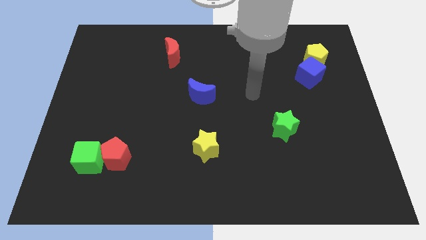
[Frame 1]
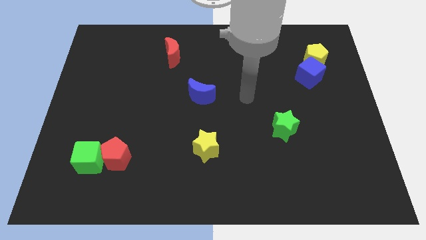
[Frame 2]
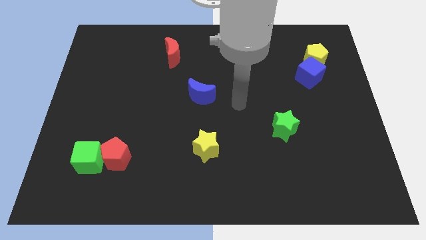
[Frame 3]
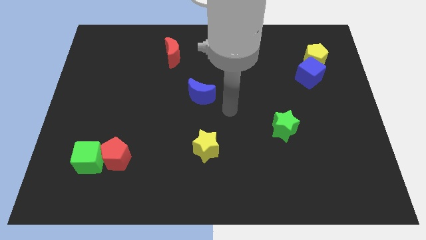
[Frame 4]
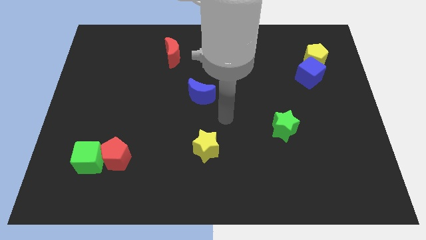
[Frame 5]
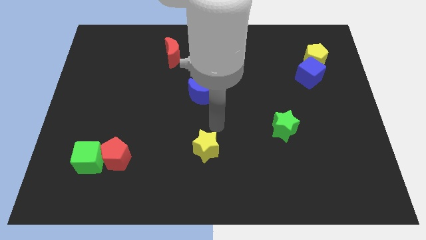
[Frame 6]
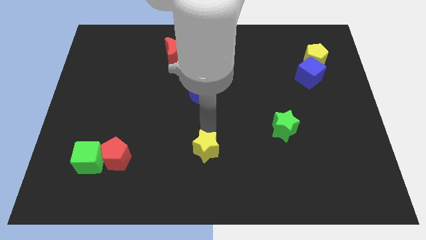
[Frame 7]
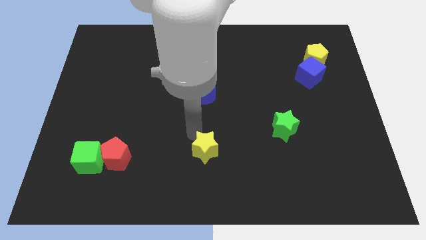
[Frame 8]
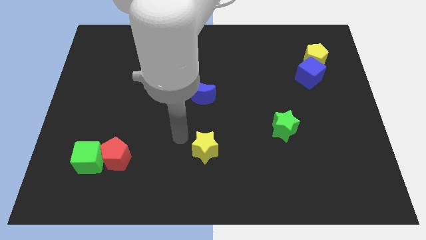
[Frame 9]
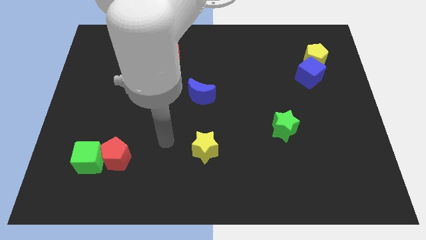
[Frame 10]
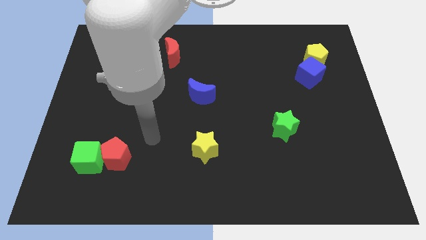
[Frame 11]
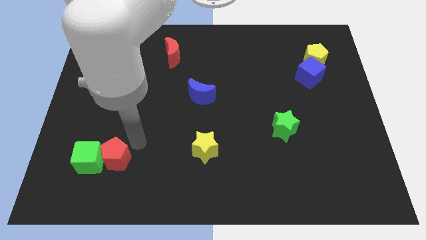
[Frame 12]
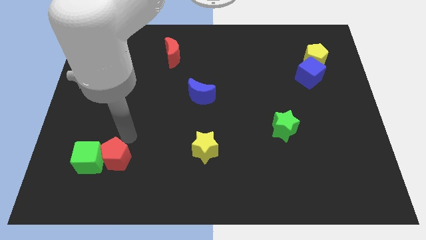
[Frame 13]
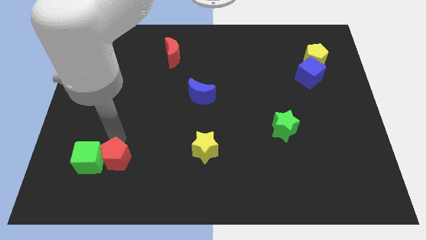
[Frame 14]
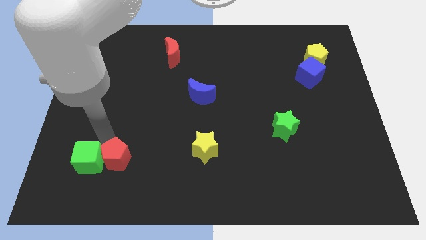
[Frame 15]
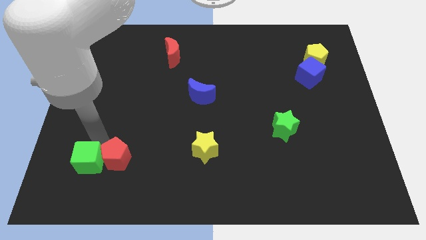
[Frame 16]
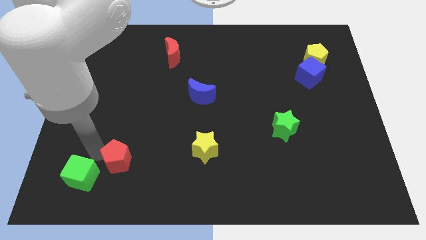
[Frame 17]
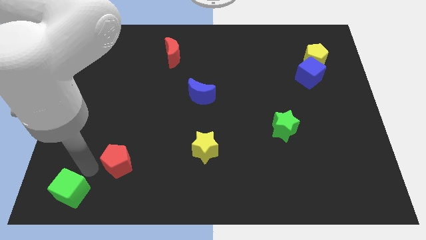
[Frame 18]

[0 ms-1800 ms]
pull the red pentagon apart from the green cube

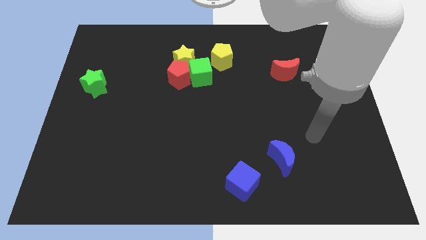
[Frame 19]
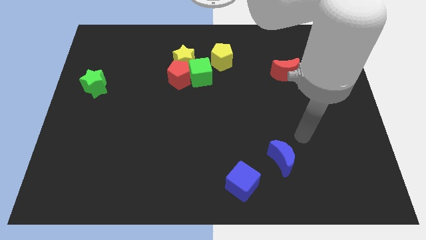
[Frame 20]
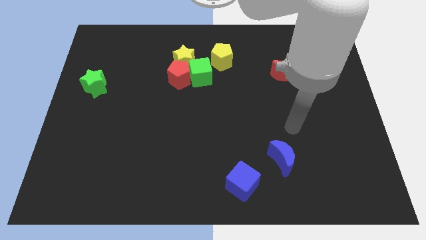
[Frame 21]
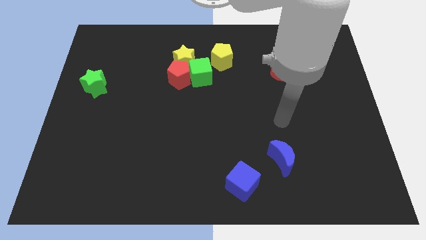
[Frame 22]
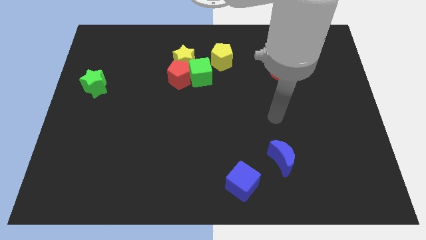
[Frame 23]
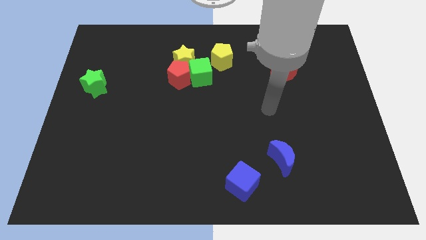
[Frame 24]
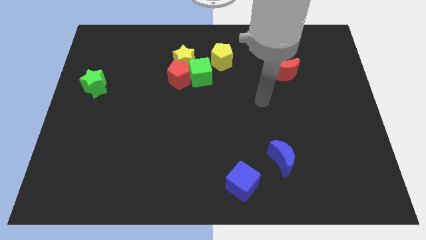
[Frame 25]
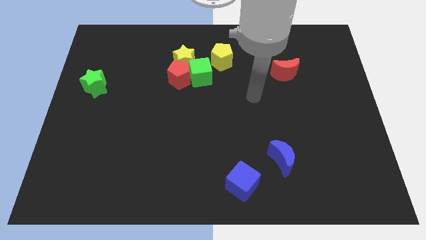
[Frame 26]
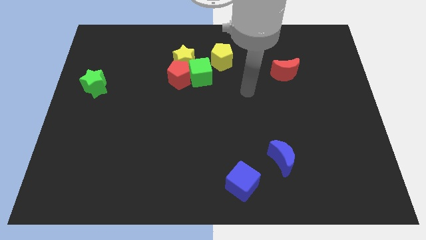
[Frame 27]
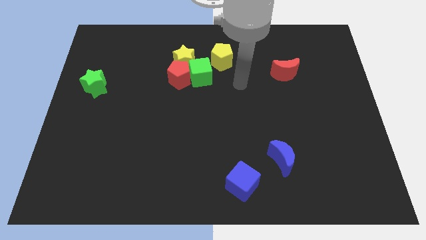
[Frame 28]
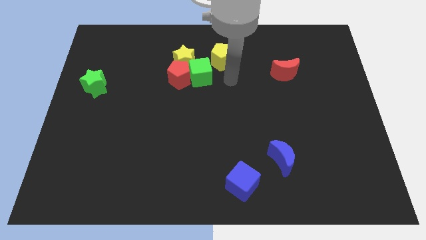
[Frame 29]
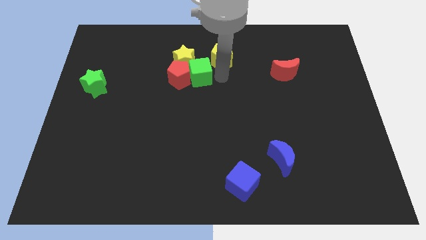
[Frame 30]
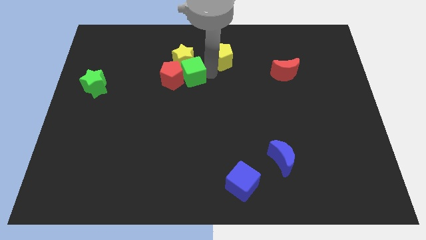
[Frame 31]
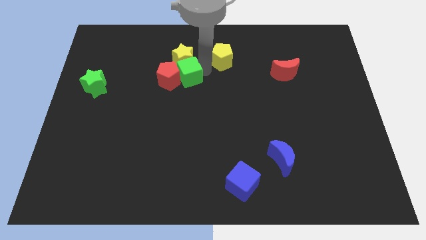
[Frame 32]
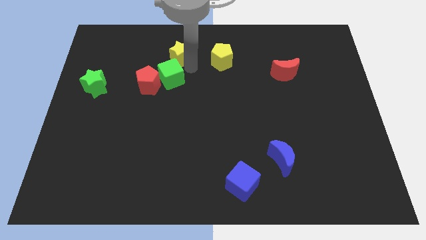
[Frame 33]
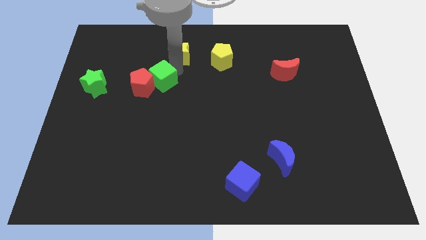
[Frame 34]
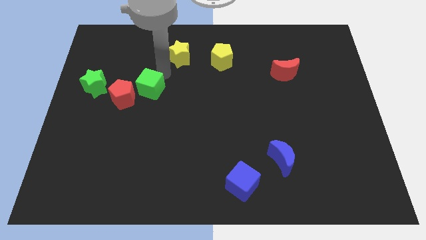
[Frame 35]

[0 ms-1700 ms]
move the red pentagon away from the green cube and yellow star

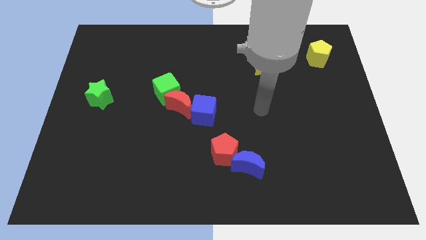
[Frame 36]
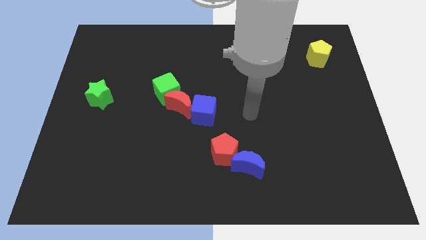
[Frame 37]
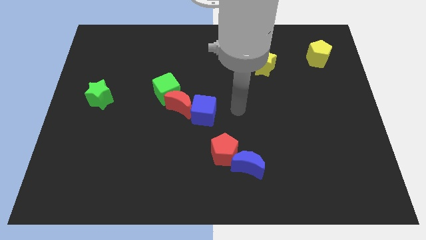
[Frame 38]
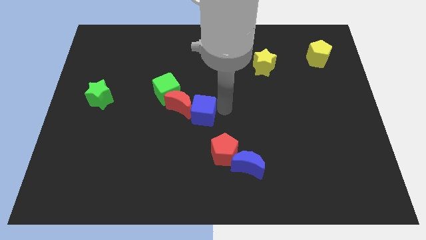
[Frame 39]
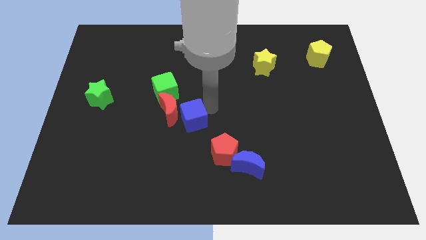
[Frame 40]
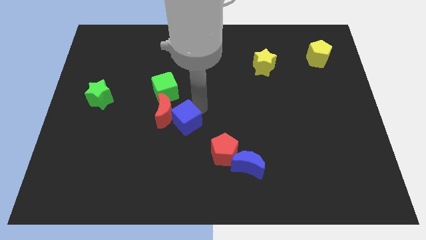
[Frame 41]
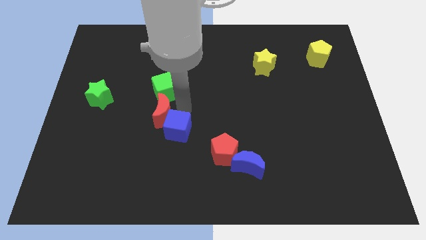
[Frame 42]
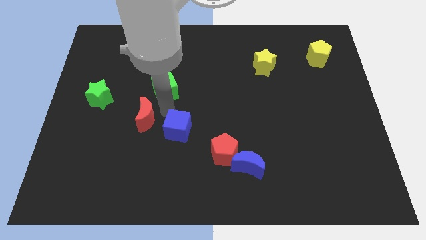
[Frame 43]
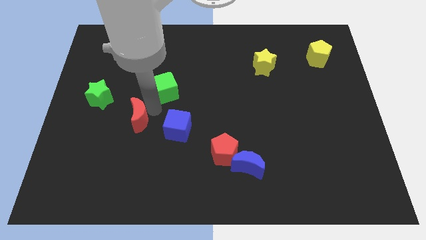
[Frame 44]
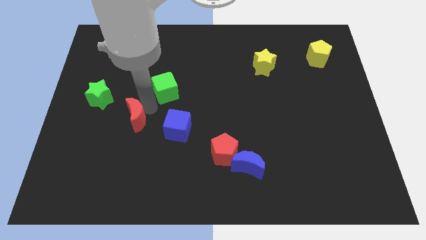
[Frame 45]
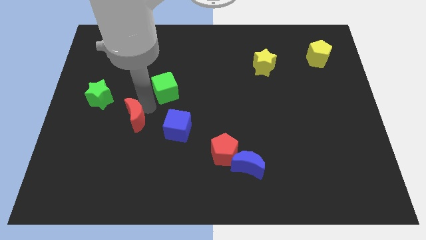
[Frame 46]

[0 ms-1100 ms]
pull the green cube apart from the red moon

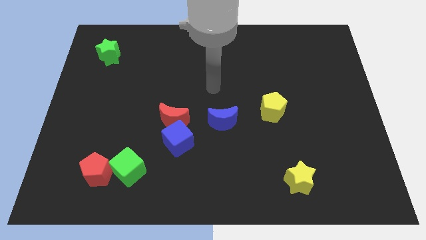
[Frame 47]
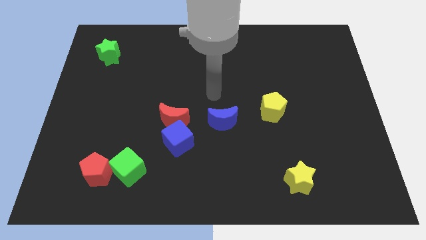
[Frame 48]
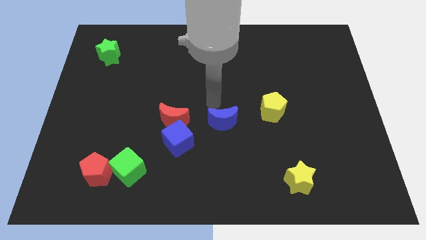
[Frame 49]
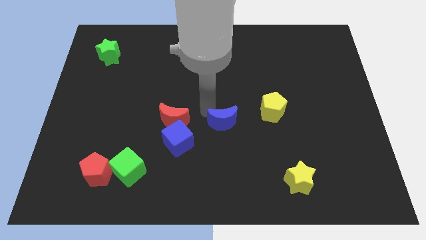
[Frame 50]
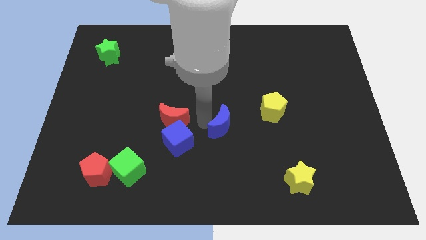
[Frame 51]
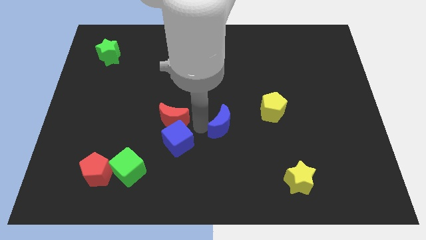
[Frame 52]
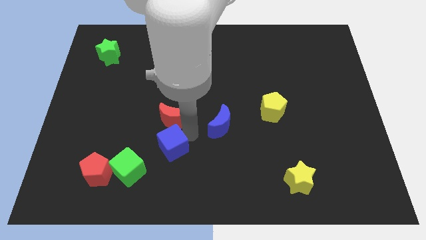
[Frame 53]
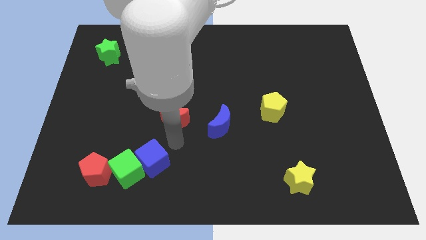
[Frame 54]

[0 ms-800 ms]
separate the red moon from the blue cube

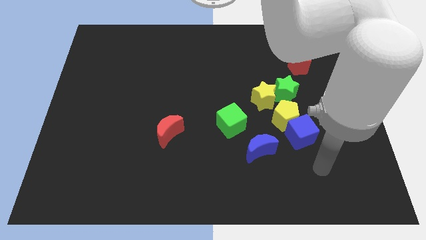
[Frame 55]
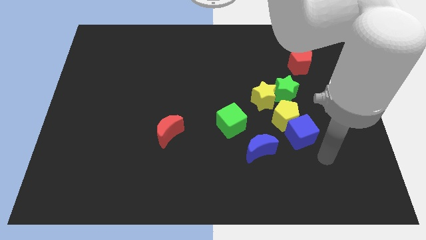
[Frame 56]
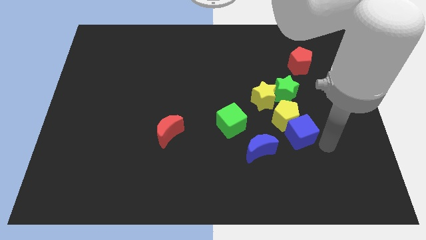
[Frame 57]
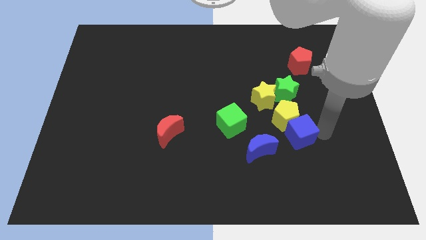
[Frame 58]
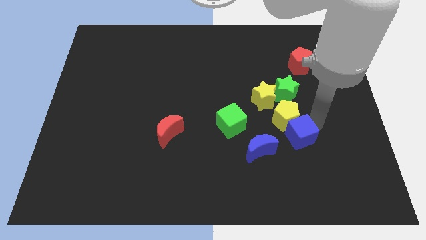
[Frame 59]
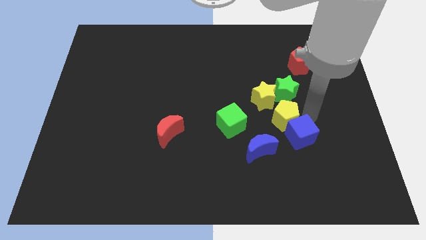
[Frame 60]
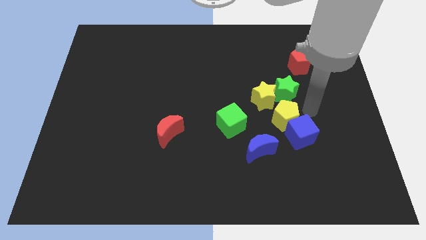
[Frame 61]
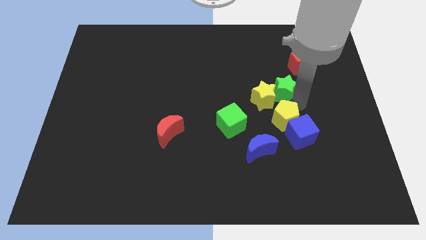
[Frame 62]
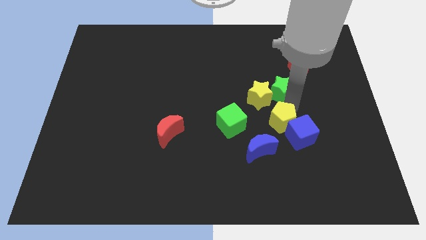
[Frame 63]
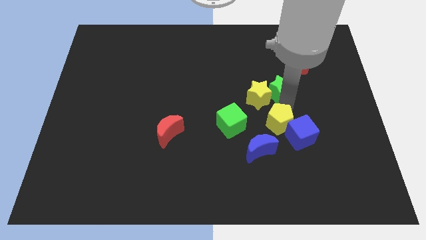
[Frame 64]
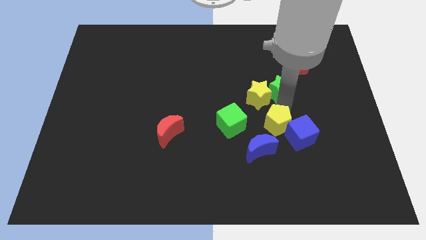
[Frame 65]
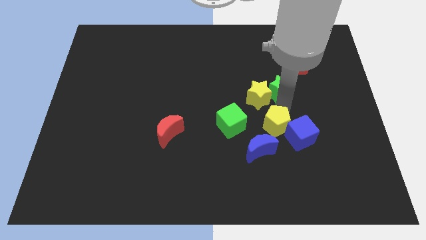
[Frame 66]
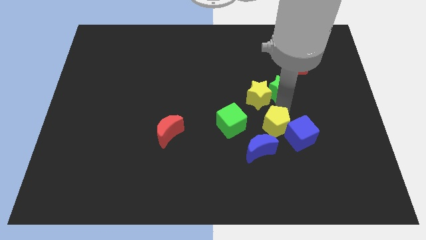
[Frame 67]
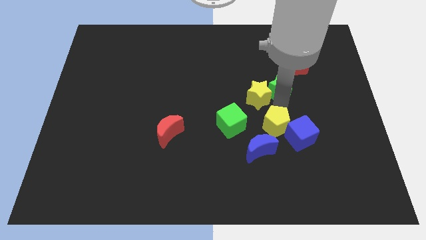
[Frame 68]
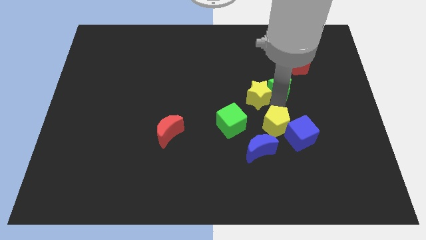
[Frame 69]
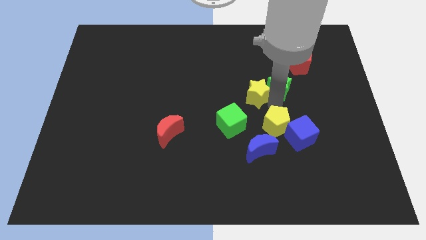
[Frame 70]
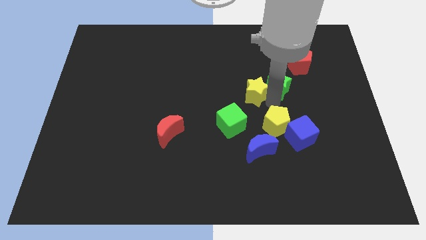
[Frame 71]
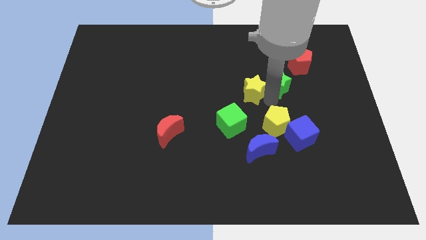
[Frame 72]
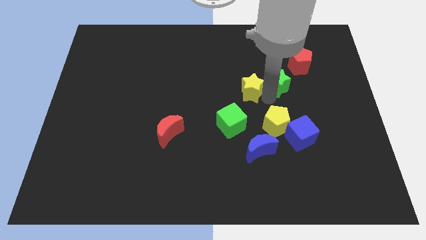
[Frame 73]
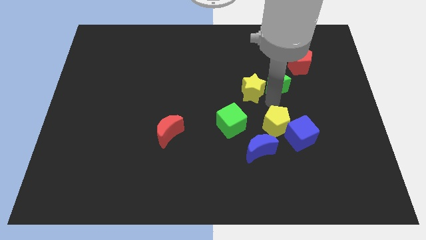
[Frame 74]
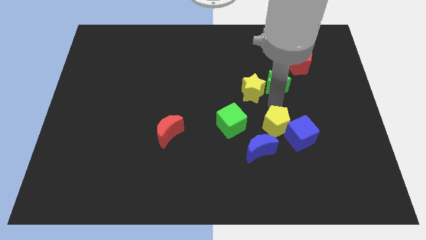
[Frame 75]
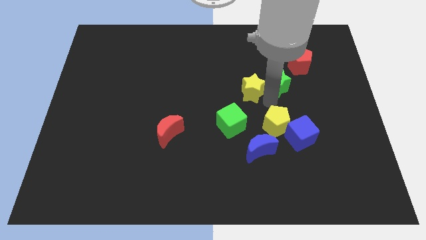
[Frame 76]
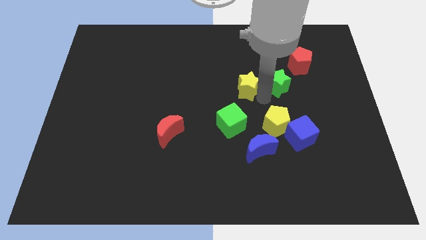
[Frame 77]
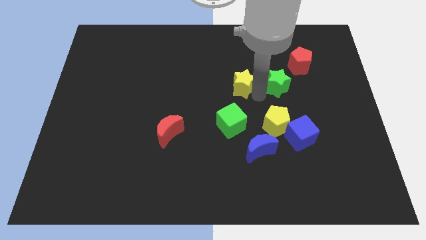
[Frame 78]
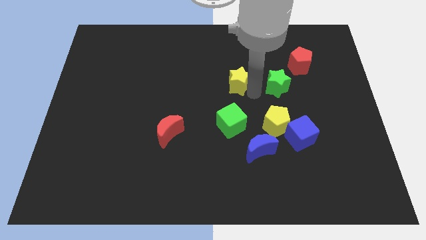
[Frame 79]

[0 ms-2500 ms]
move the yellow star away from the green star and yellow pentagon

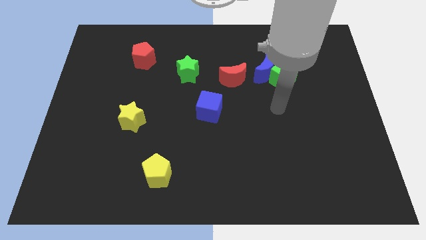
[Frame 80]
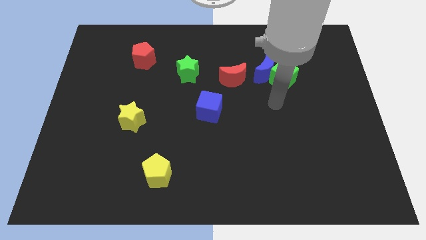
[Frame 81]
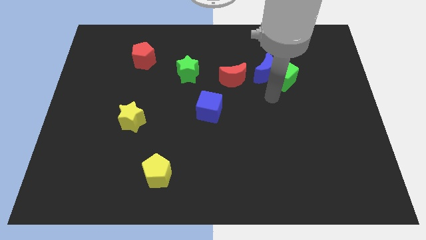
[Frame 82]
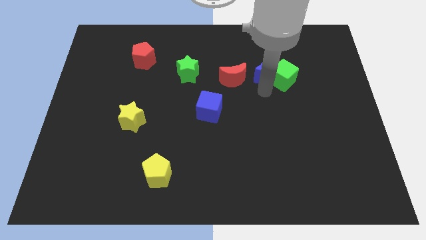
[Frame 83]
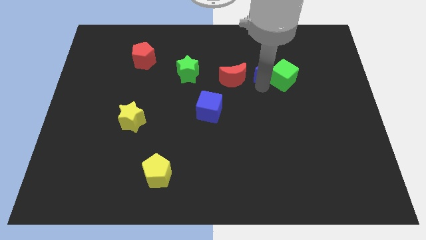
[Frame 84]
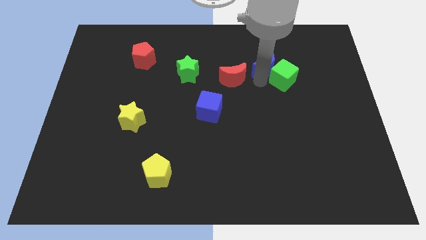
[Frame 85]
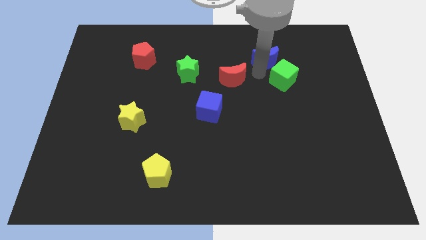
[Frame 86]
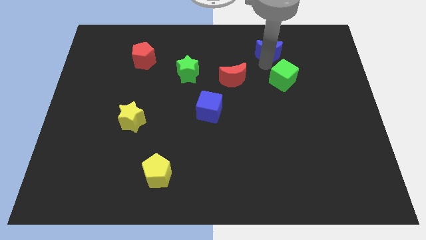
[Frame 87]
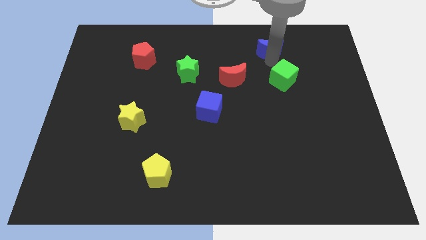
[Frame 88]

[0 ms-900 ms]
separate the green cube from the blue moon

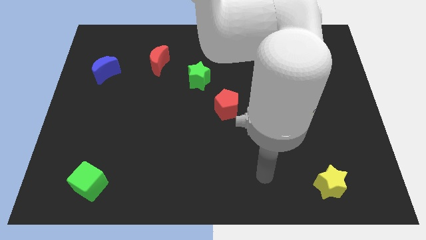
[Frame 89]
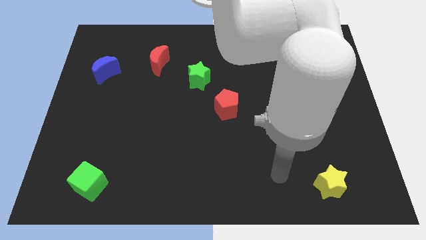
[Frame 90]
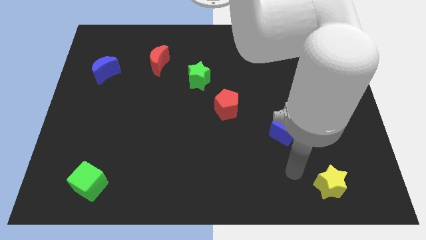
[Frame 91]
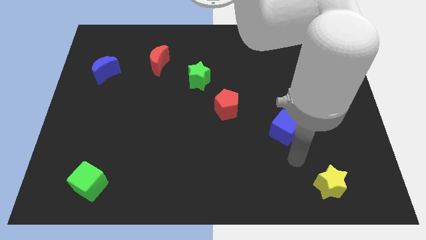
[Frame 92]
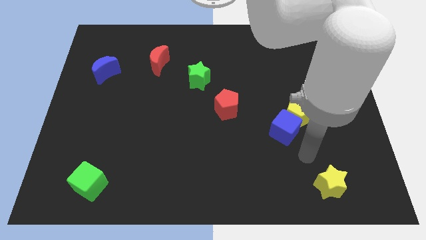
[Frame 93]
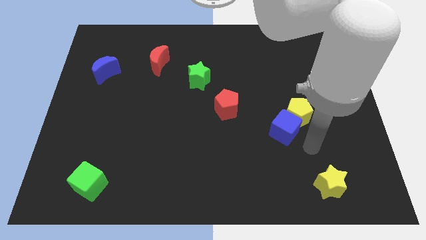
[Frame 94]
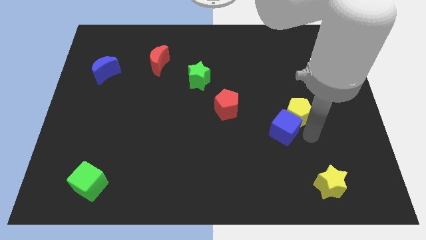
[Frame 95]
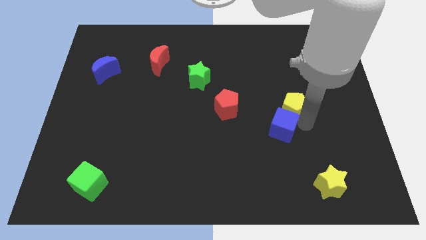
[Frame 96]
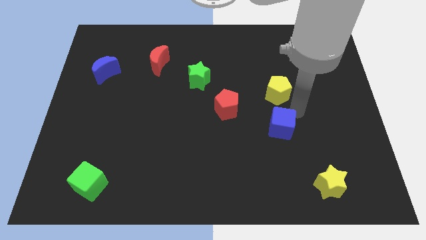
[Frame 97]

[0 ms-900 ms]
separate the blue cube from the yellow pentagon
